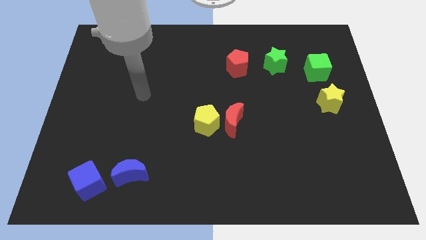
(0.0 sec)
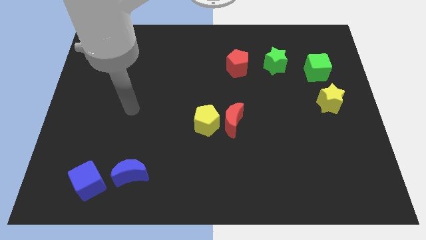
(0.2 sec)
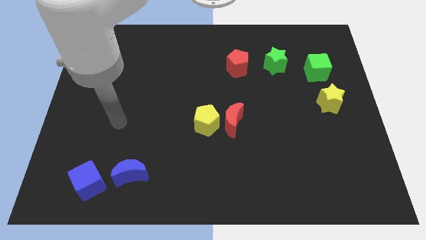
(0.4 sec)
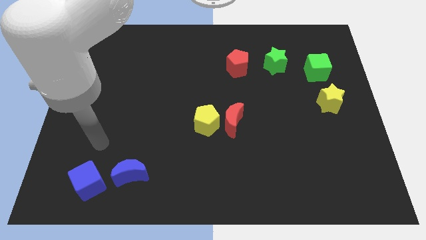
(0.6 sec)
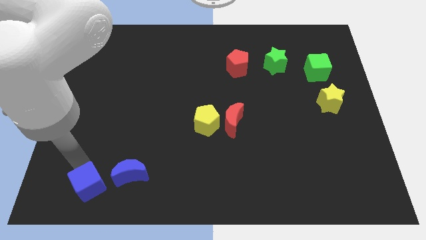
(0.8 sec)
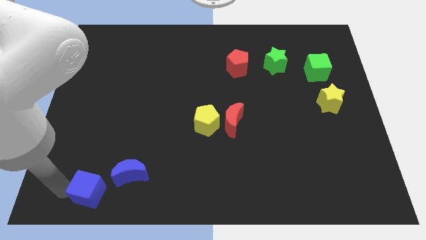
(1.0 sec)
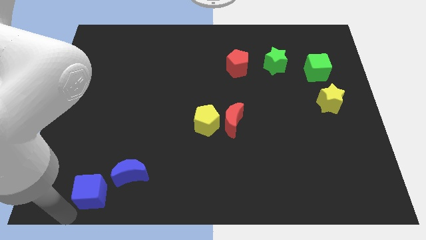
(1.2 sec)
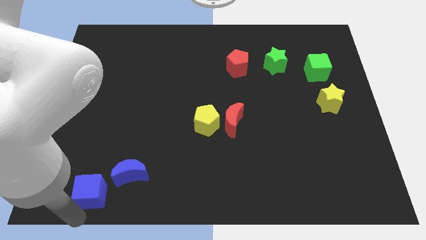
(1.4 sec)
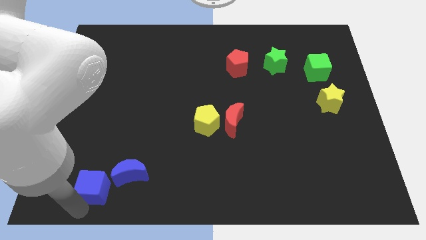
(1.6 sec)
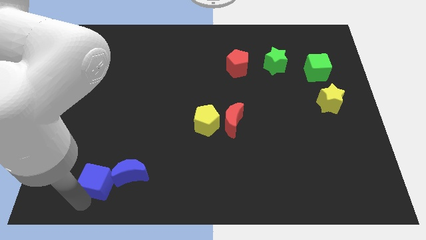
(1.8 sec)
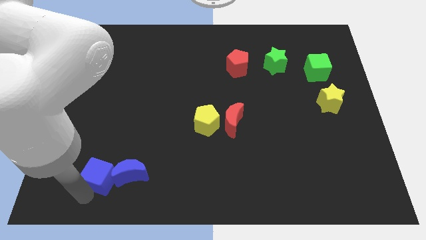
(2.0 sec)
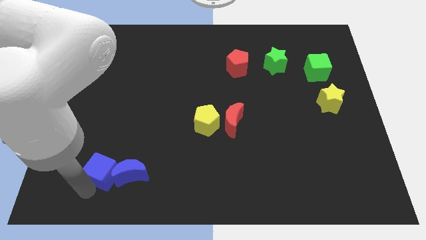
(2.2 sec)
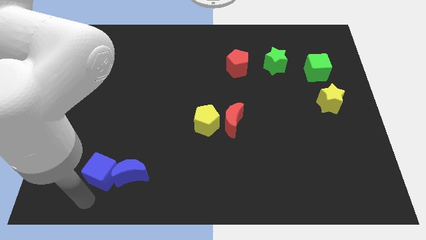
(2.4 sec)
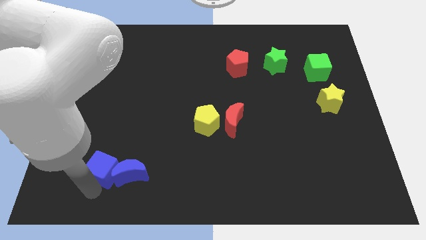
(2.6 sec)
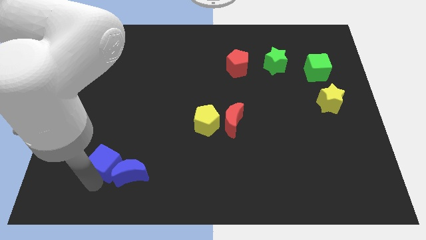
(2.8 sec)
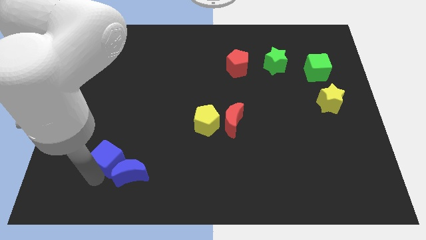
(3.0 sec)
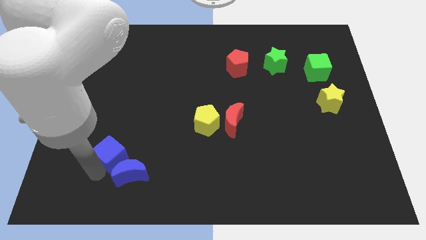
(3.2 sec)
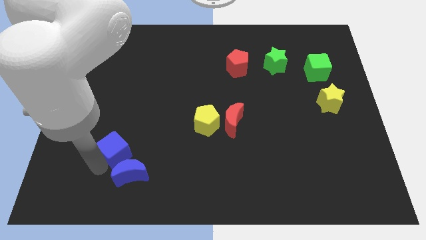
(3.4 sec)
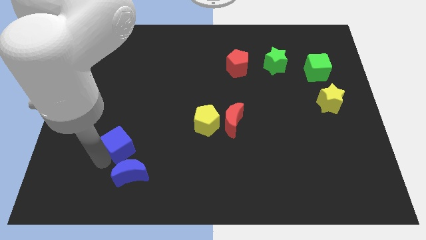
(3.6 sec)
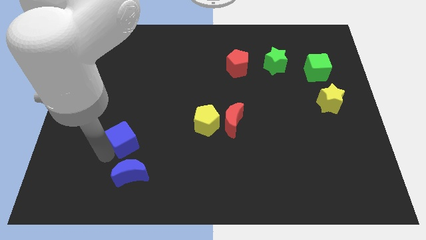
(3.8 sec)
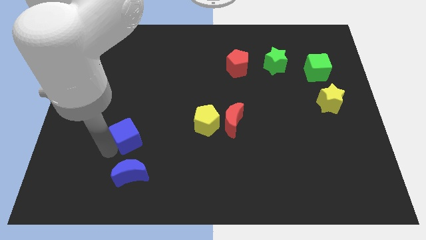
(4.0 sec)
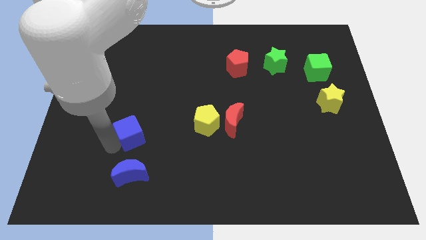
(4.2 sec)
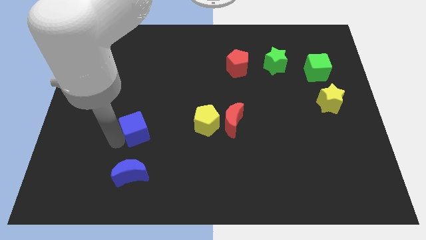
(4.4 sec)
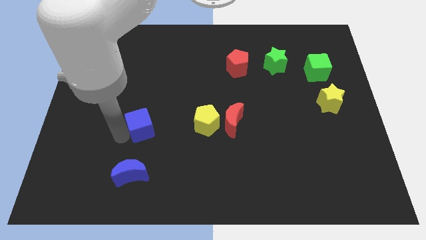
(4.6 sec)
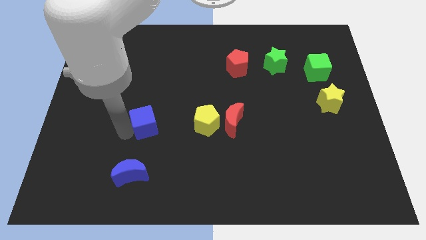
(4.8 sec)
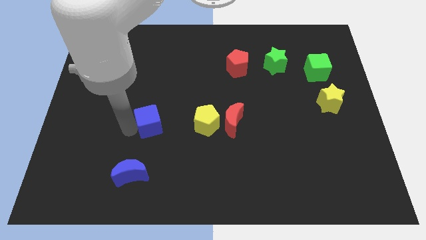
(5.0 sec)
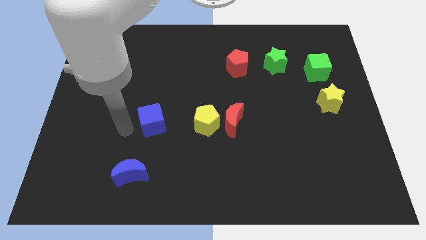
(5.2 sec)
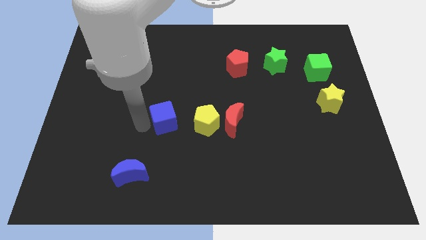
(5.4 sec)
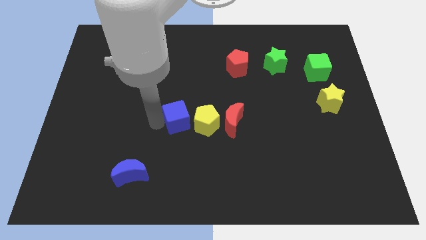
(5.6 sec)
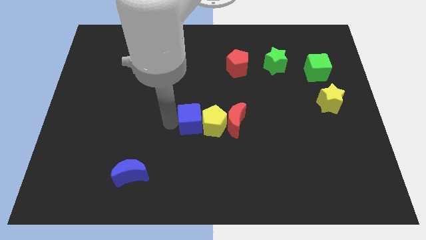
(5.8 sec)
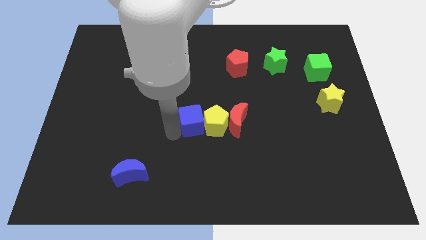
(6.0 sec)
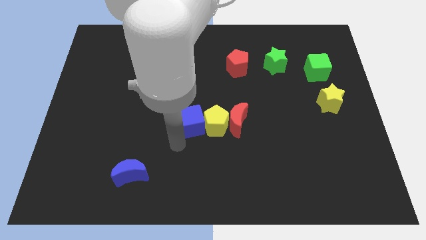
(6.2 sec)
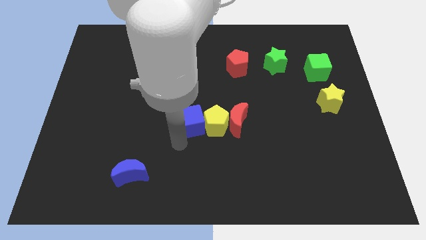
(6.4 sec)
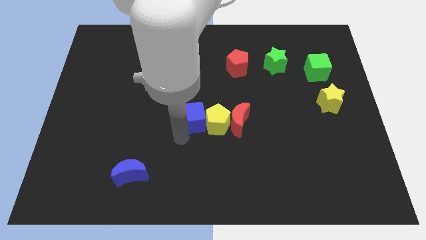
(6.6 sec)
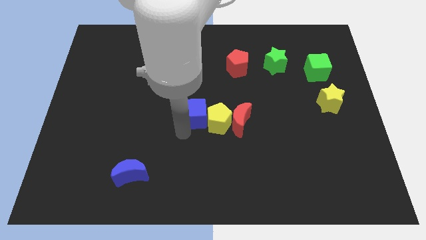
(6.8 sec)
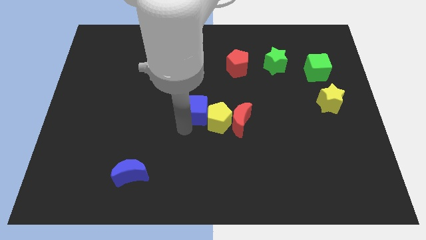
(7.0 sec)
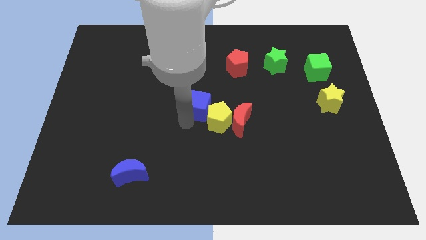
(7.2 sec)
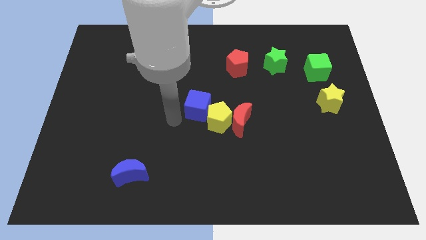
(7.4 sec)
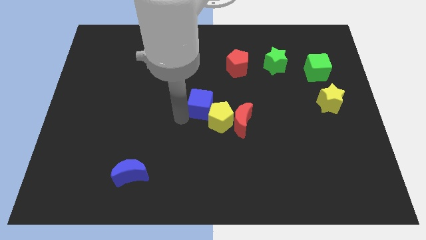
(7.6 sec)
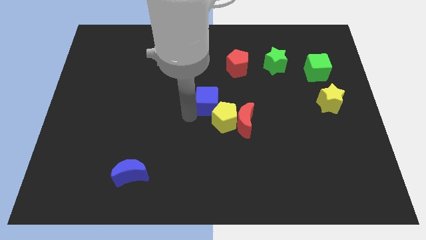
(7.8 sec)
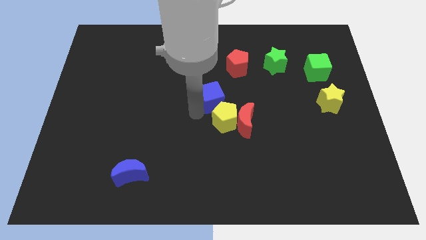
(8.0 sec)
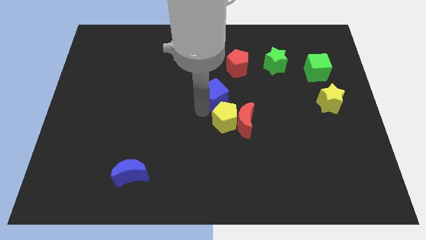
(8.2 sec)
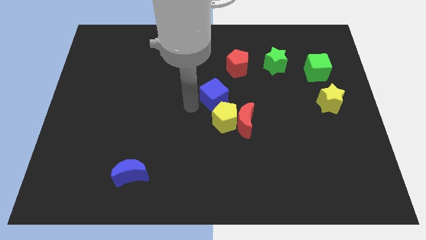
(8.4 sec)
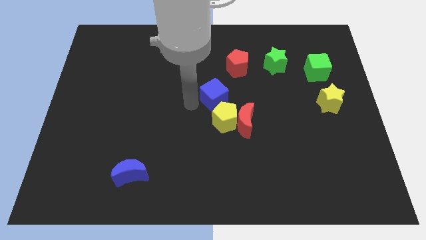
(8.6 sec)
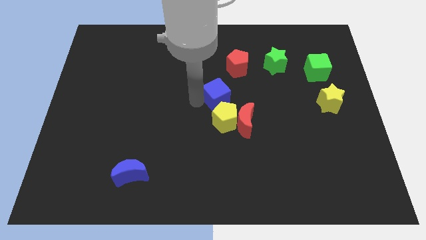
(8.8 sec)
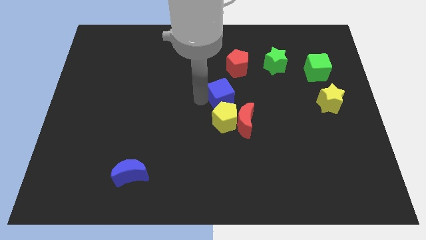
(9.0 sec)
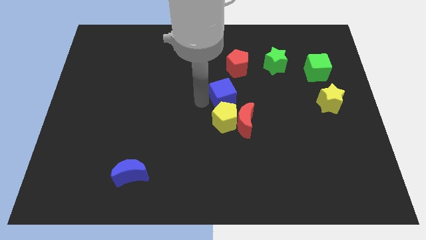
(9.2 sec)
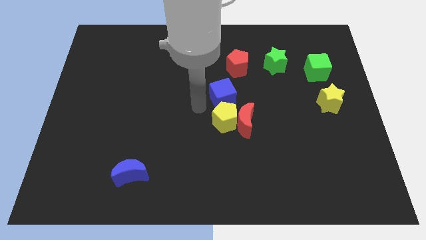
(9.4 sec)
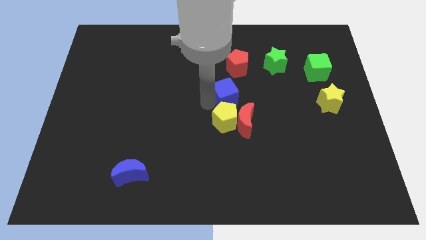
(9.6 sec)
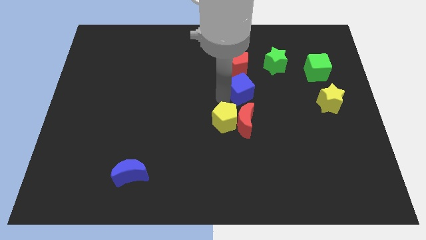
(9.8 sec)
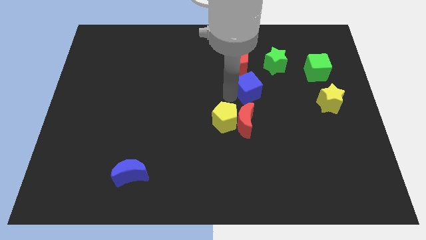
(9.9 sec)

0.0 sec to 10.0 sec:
put the blue cube diagonally down and to the right of the red pentagon

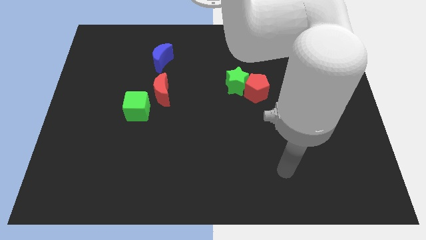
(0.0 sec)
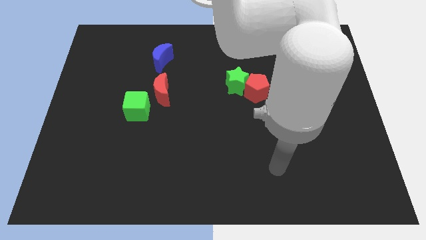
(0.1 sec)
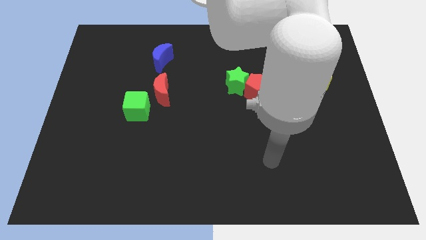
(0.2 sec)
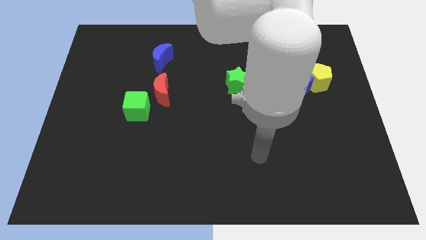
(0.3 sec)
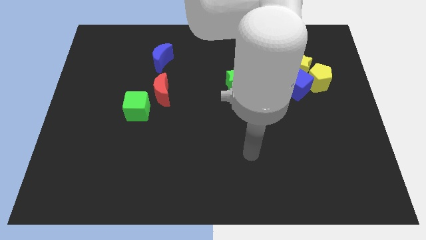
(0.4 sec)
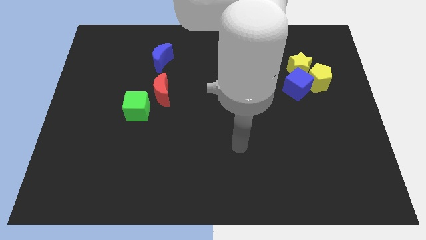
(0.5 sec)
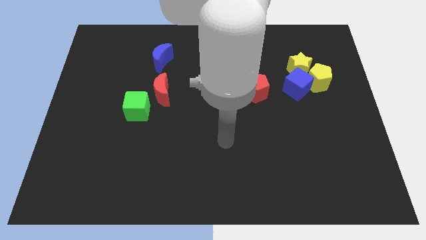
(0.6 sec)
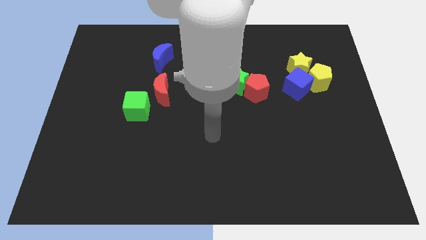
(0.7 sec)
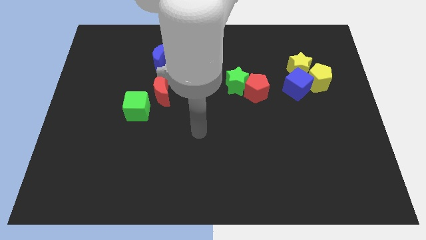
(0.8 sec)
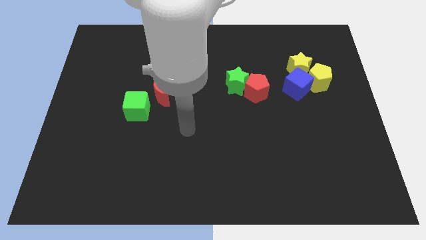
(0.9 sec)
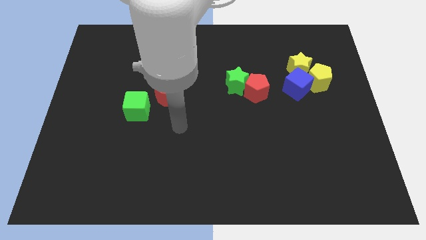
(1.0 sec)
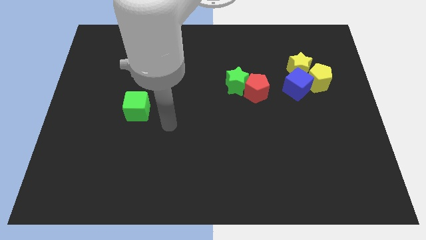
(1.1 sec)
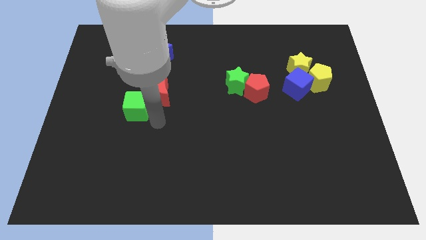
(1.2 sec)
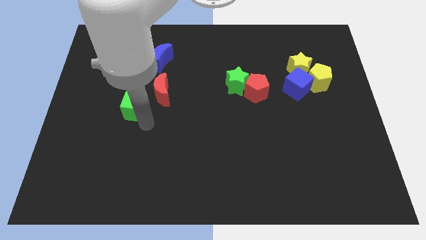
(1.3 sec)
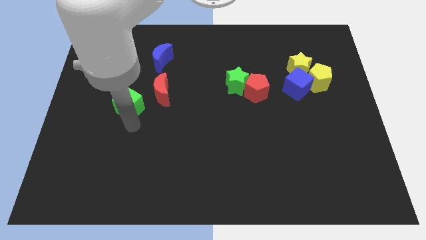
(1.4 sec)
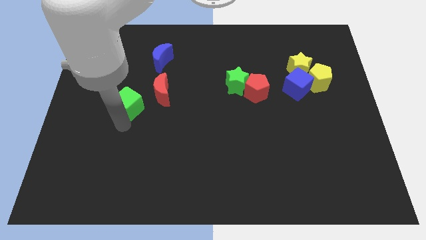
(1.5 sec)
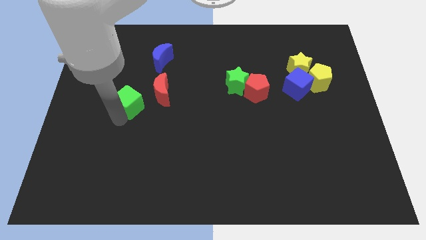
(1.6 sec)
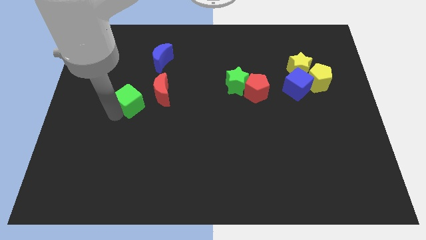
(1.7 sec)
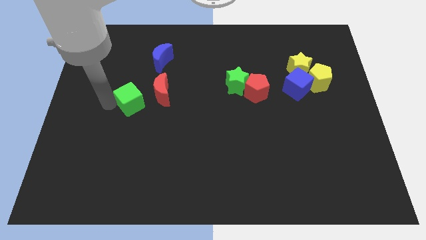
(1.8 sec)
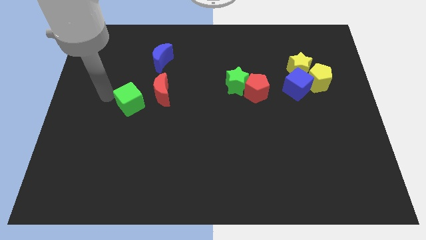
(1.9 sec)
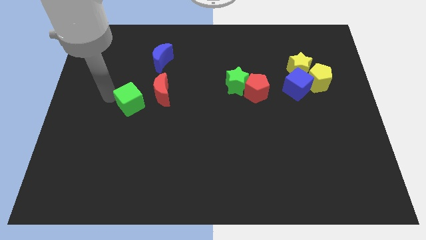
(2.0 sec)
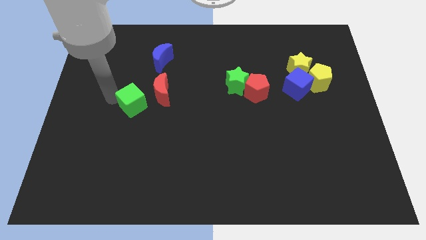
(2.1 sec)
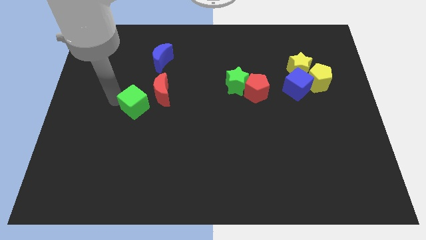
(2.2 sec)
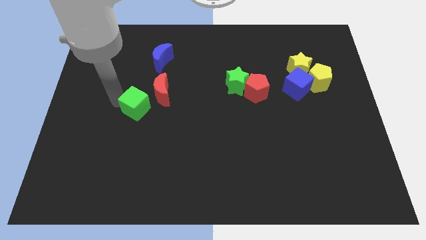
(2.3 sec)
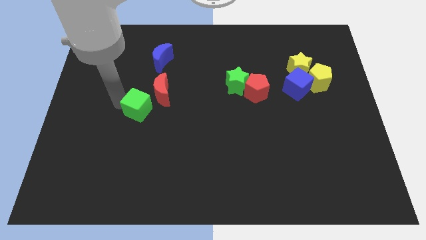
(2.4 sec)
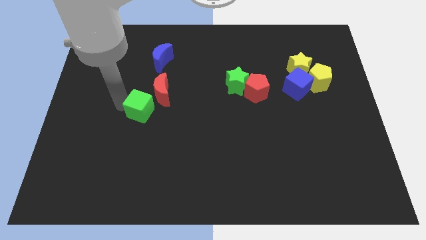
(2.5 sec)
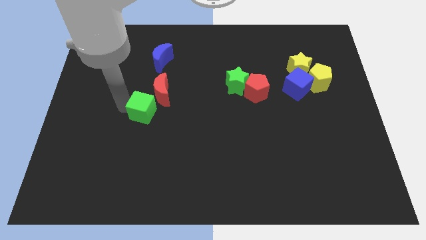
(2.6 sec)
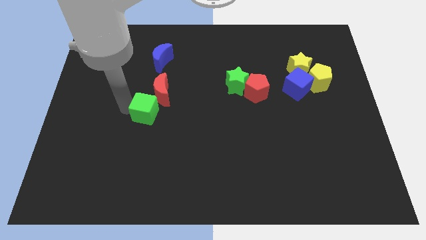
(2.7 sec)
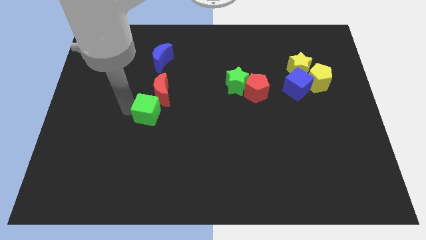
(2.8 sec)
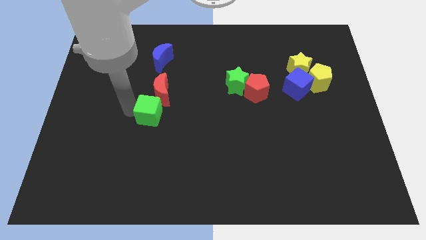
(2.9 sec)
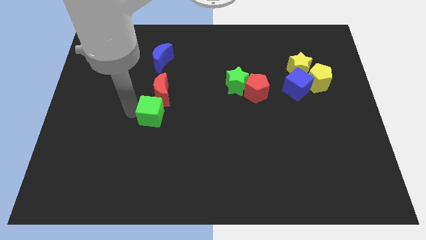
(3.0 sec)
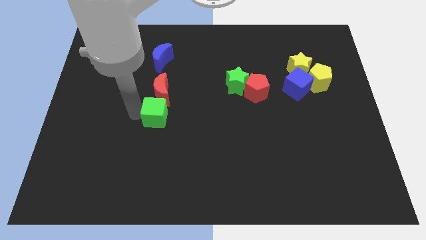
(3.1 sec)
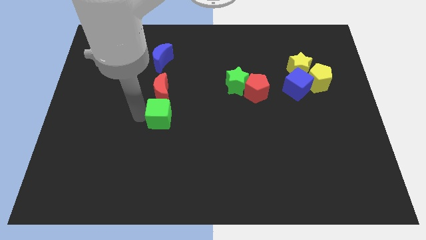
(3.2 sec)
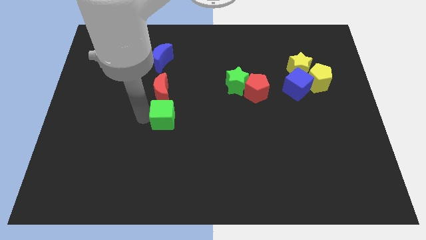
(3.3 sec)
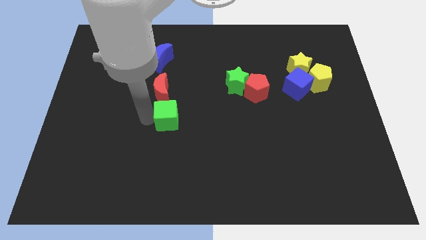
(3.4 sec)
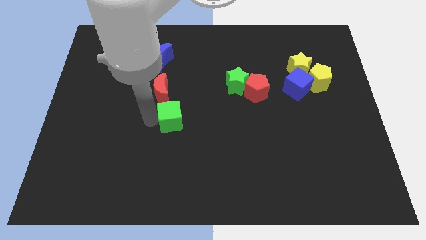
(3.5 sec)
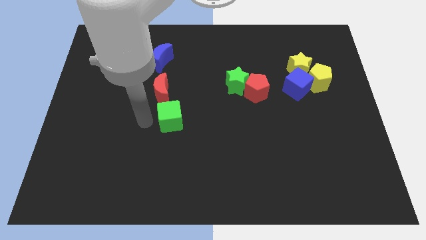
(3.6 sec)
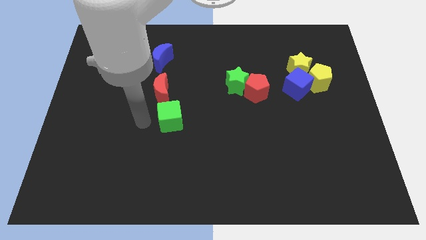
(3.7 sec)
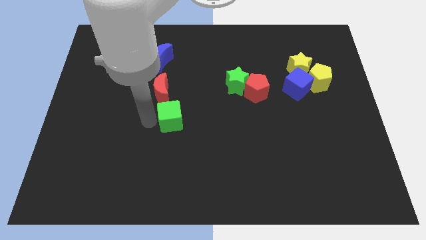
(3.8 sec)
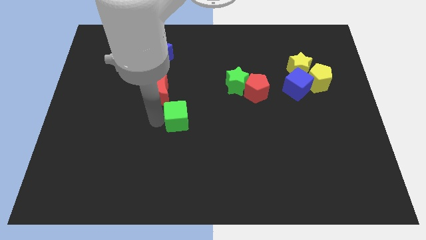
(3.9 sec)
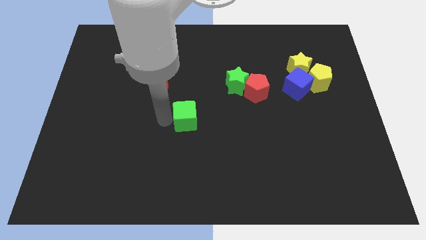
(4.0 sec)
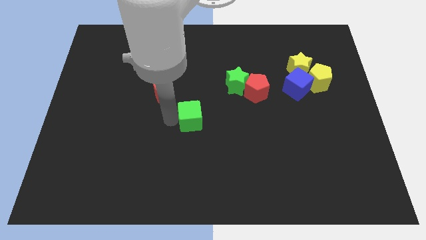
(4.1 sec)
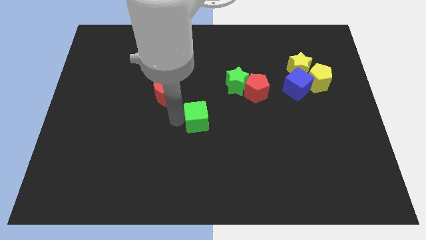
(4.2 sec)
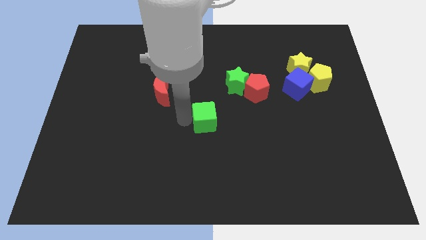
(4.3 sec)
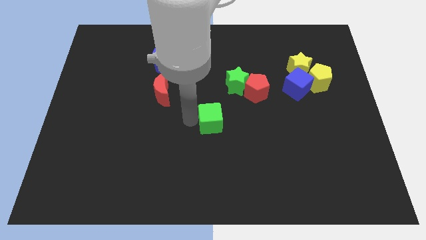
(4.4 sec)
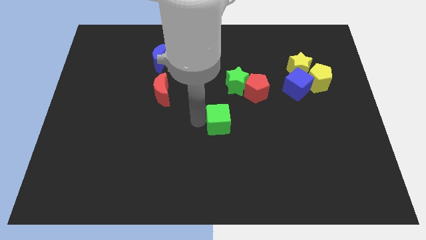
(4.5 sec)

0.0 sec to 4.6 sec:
push the green cube to the bottom of the green star
